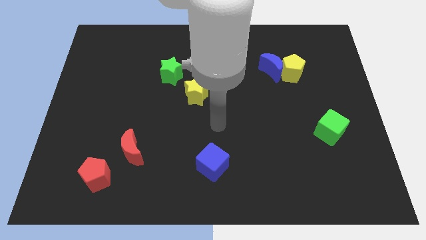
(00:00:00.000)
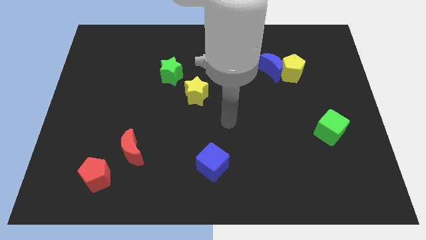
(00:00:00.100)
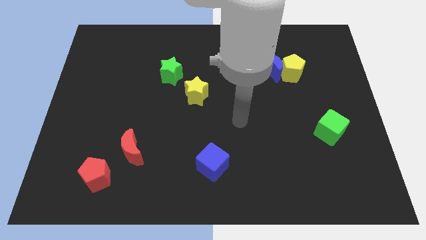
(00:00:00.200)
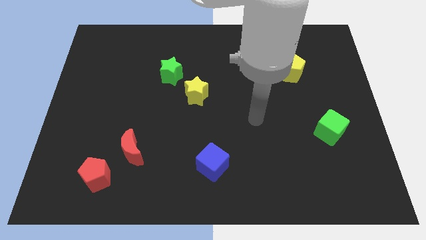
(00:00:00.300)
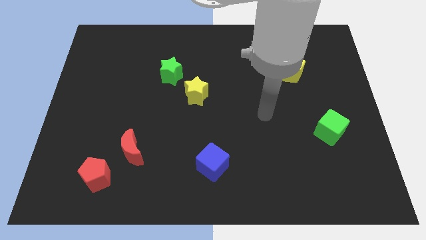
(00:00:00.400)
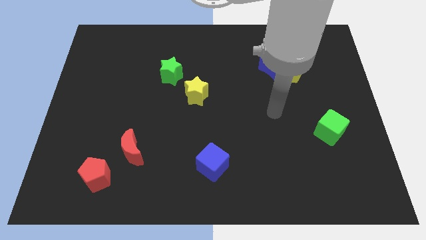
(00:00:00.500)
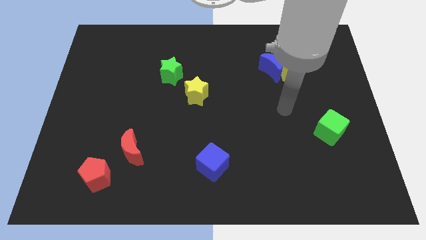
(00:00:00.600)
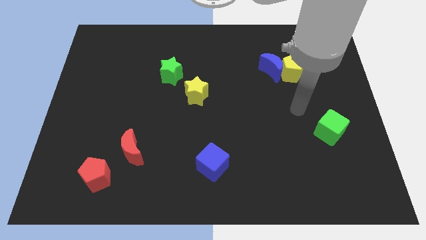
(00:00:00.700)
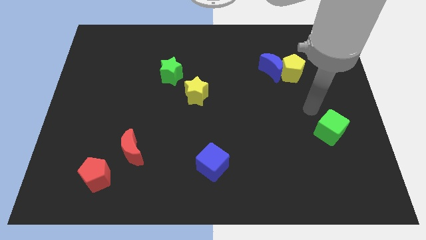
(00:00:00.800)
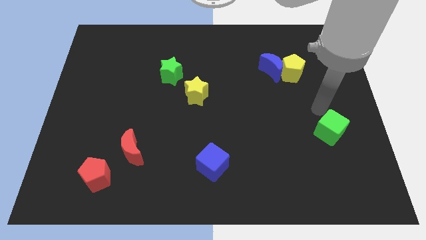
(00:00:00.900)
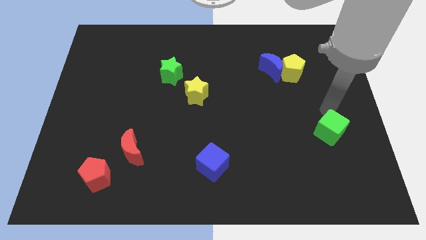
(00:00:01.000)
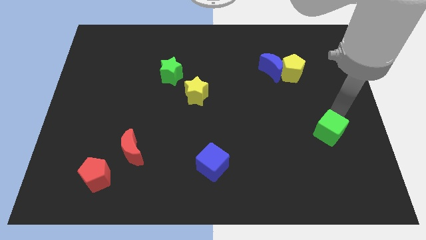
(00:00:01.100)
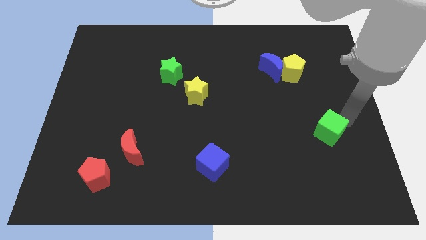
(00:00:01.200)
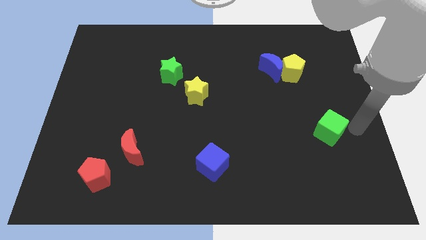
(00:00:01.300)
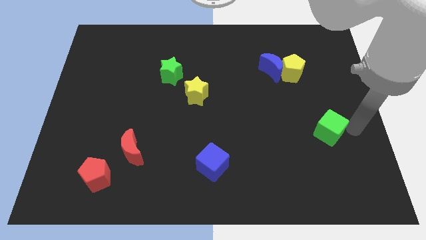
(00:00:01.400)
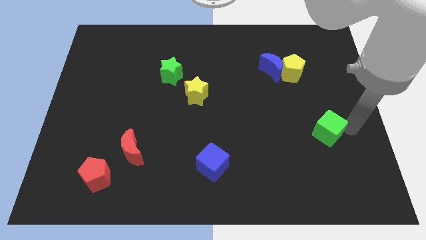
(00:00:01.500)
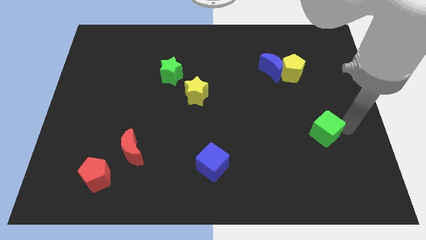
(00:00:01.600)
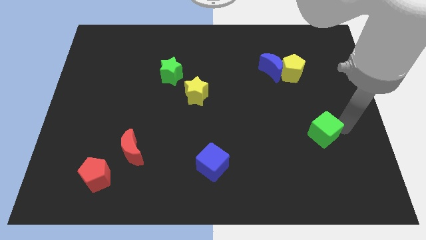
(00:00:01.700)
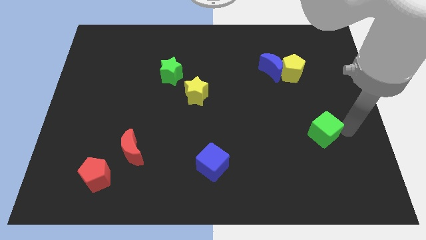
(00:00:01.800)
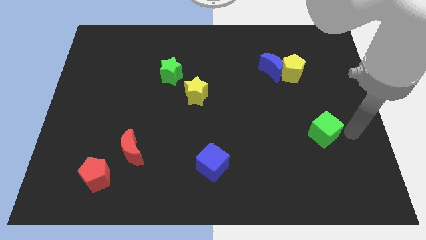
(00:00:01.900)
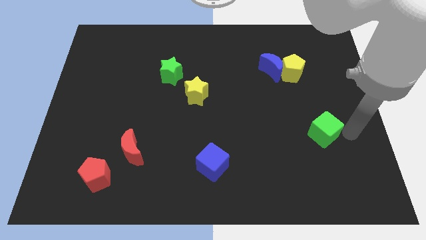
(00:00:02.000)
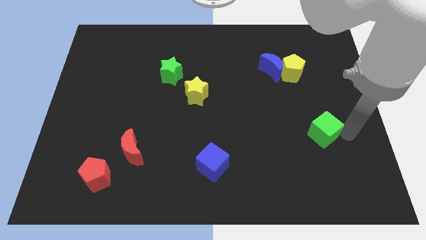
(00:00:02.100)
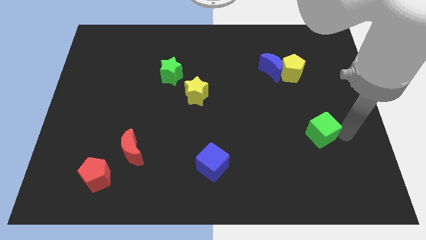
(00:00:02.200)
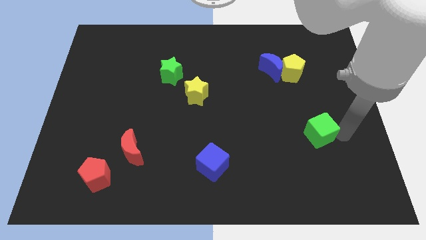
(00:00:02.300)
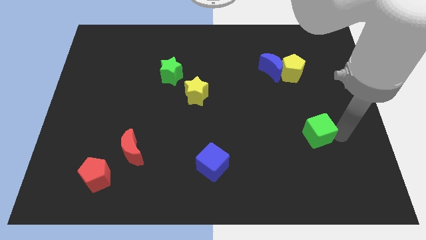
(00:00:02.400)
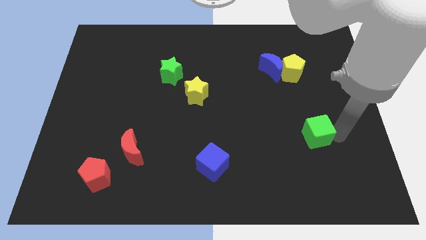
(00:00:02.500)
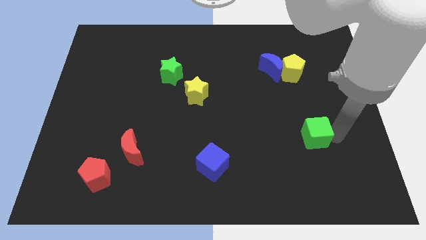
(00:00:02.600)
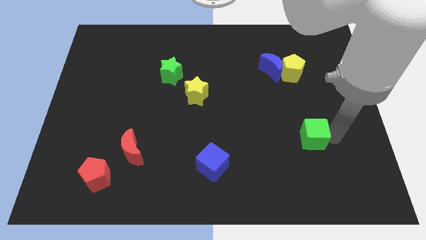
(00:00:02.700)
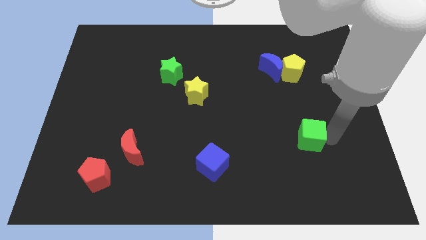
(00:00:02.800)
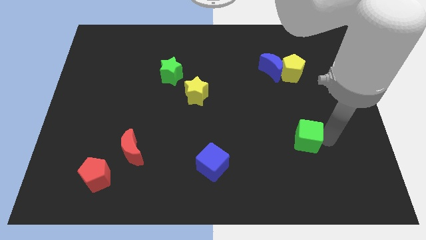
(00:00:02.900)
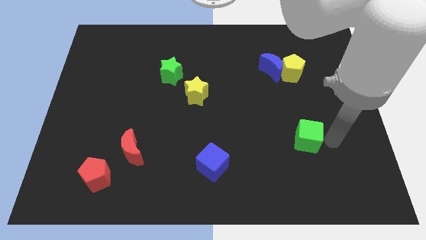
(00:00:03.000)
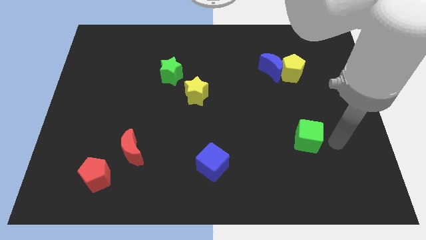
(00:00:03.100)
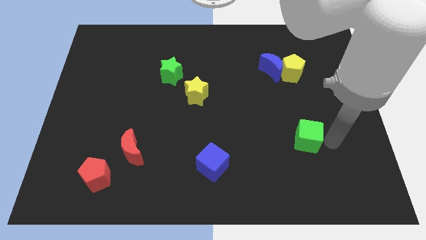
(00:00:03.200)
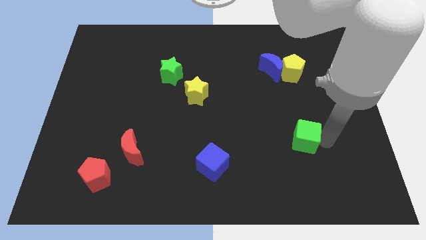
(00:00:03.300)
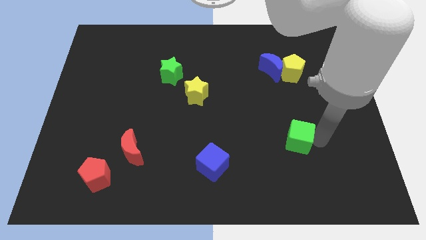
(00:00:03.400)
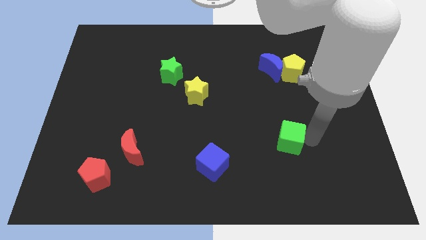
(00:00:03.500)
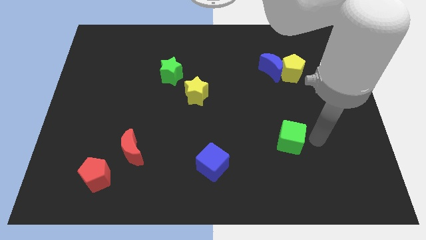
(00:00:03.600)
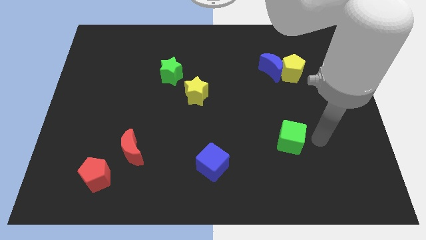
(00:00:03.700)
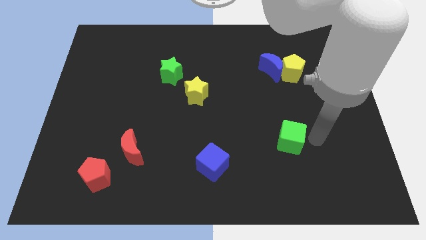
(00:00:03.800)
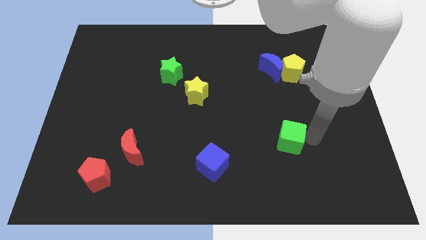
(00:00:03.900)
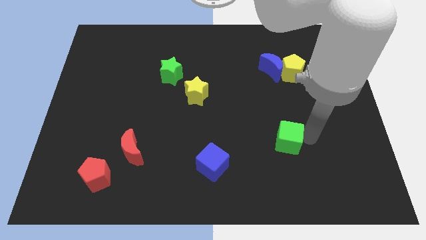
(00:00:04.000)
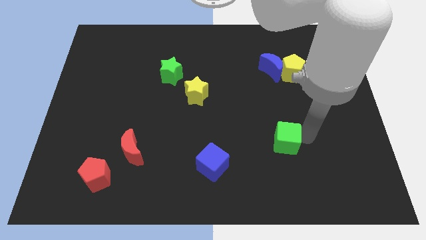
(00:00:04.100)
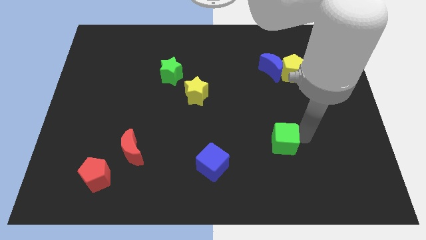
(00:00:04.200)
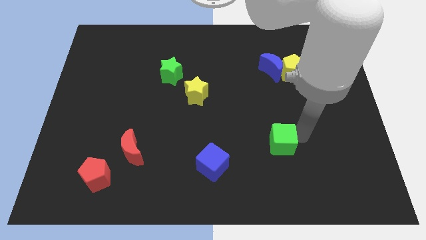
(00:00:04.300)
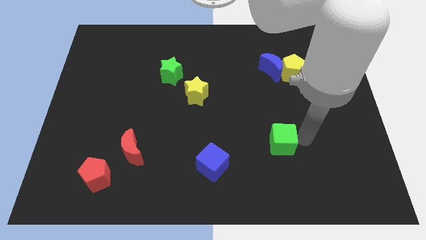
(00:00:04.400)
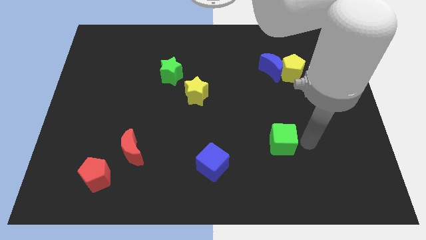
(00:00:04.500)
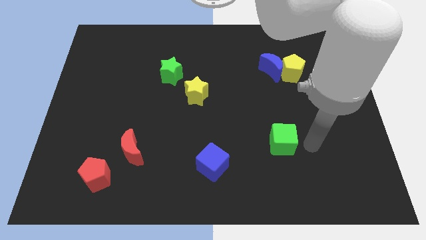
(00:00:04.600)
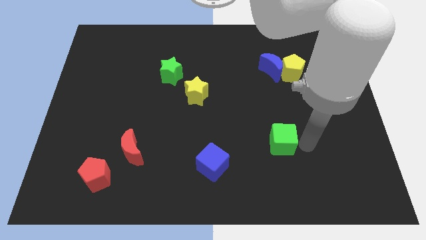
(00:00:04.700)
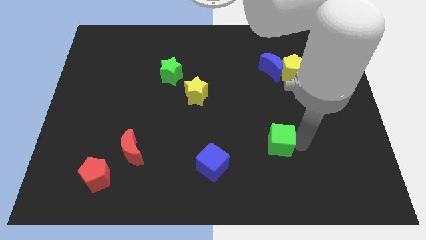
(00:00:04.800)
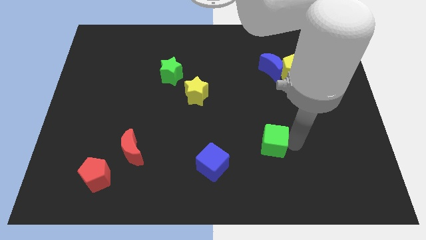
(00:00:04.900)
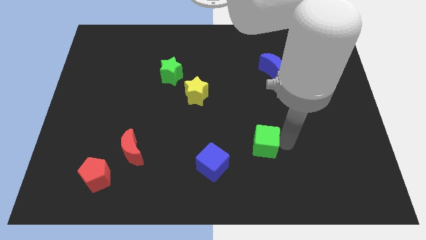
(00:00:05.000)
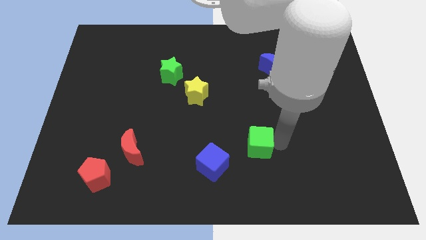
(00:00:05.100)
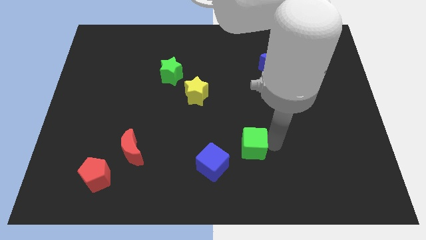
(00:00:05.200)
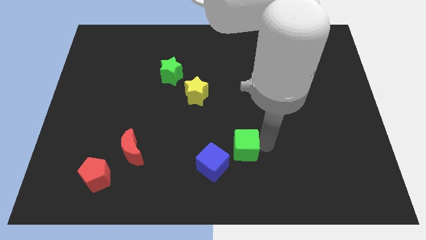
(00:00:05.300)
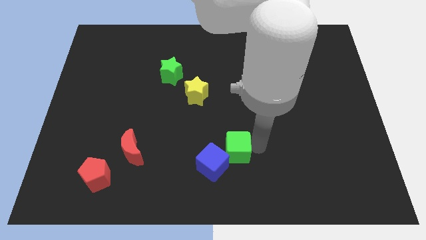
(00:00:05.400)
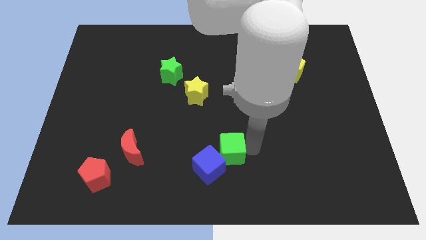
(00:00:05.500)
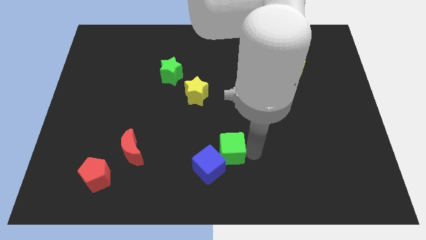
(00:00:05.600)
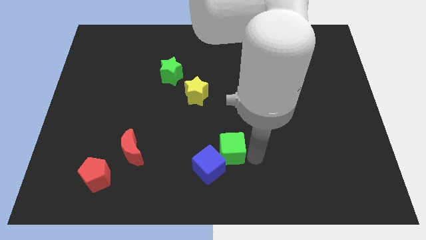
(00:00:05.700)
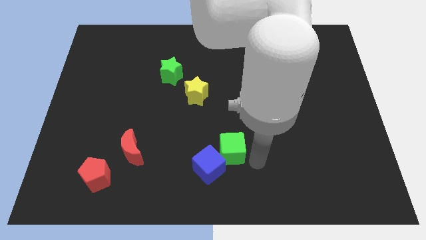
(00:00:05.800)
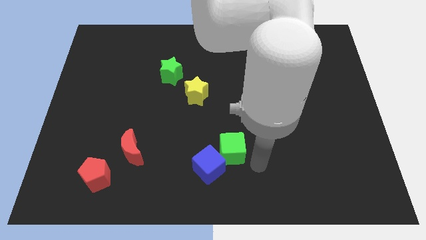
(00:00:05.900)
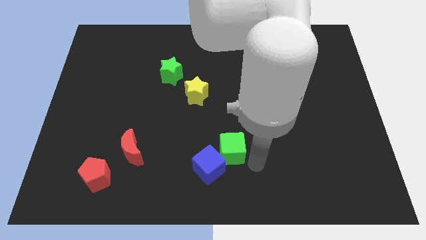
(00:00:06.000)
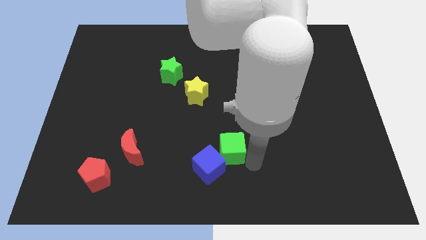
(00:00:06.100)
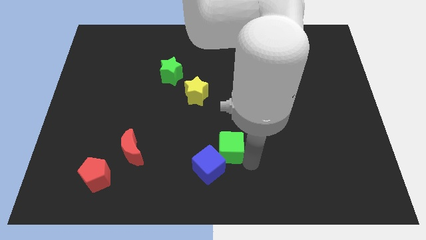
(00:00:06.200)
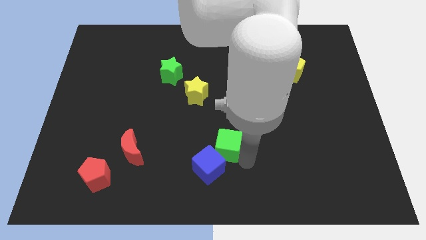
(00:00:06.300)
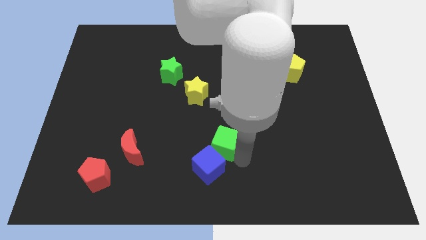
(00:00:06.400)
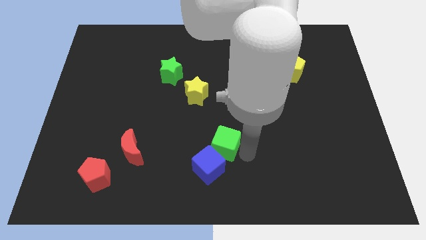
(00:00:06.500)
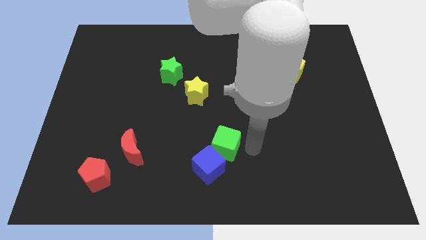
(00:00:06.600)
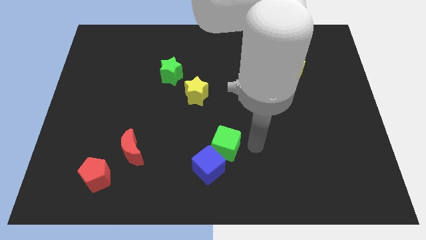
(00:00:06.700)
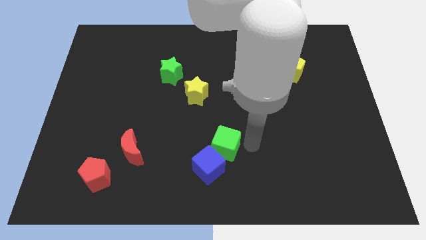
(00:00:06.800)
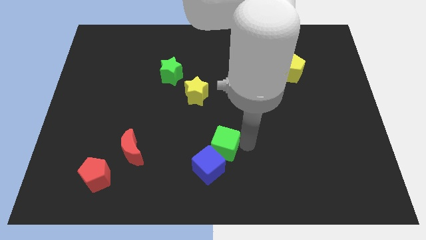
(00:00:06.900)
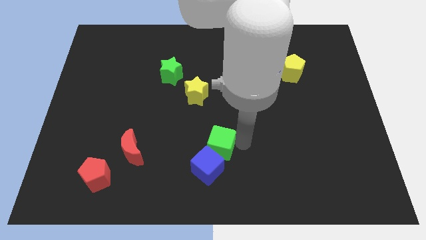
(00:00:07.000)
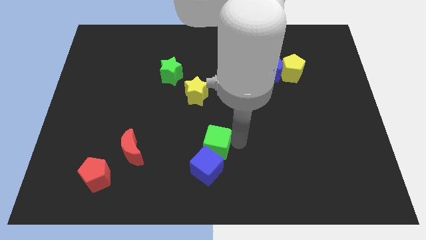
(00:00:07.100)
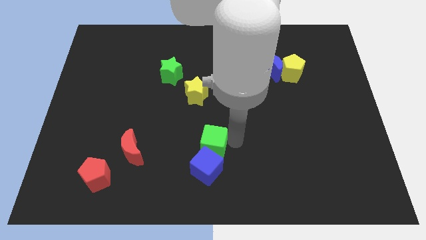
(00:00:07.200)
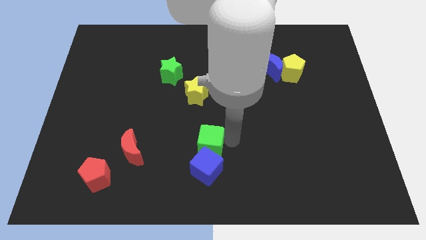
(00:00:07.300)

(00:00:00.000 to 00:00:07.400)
move the green cube to the top left of the blue cube
